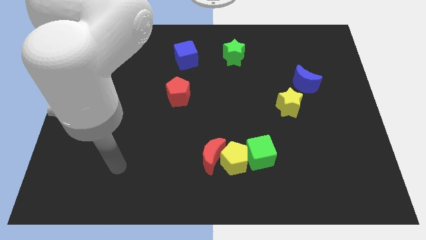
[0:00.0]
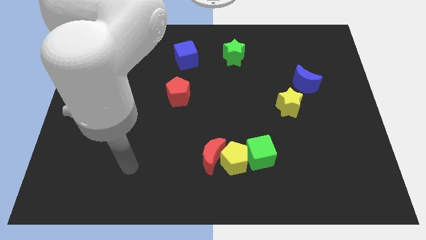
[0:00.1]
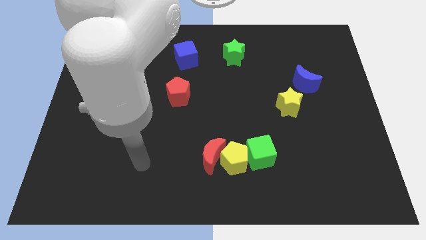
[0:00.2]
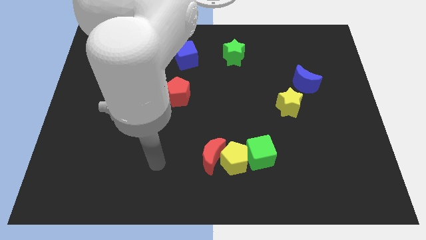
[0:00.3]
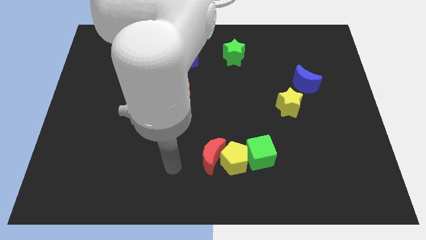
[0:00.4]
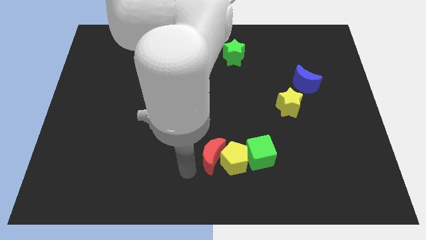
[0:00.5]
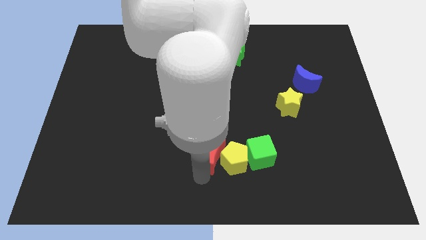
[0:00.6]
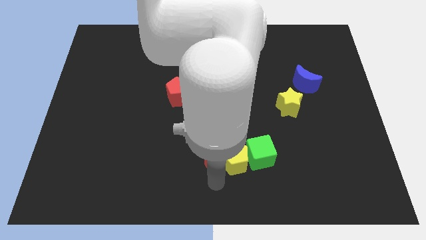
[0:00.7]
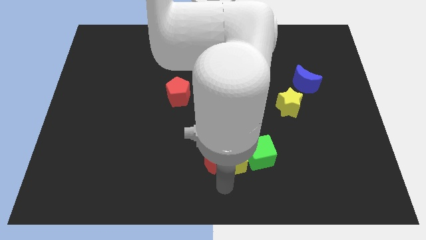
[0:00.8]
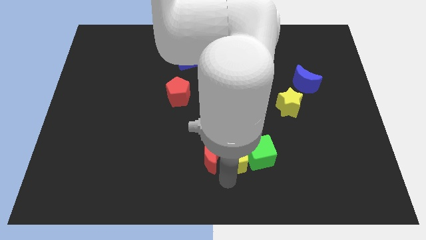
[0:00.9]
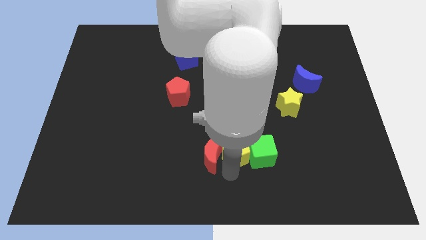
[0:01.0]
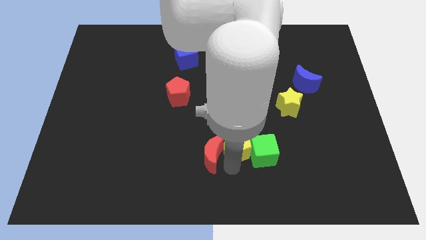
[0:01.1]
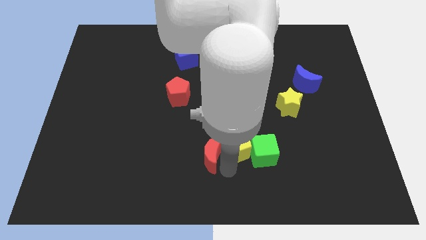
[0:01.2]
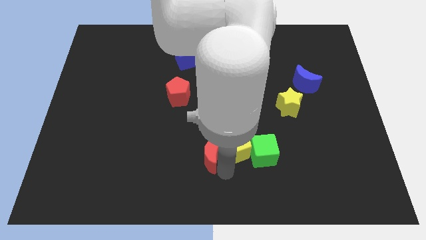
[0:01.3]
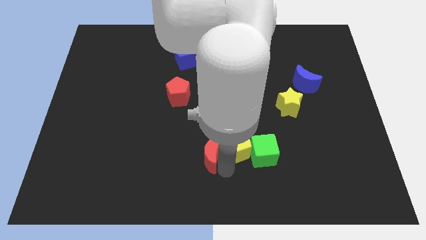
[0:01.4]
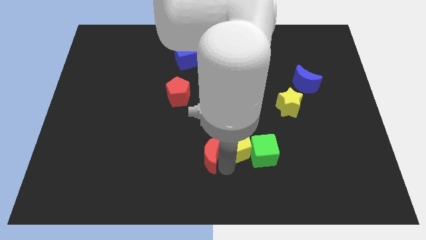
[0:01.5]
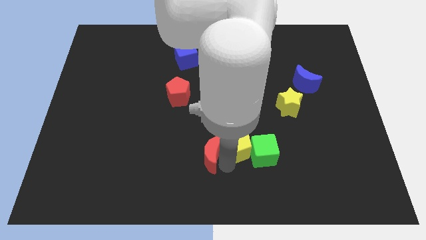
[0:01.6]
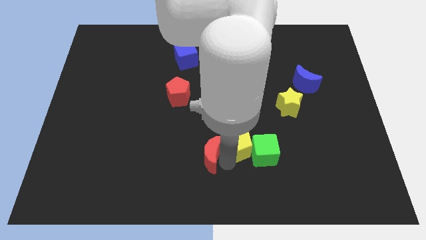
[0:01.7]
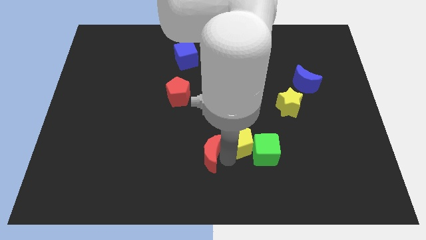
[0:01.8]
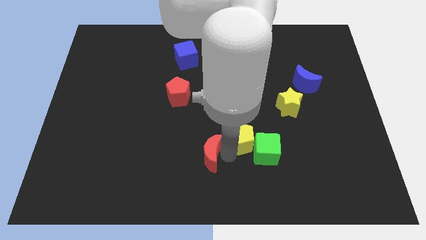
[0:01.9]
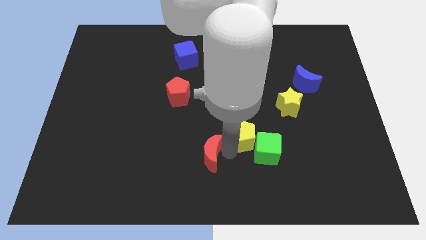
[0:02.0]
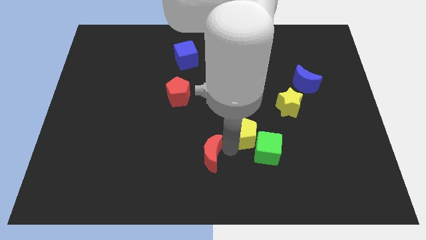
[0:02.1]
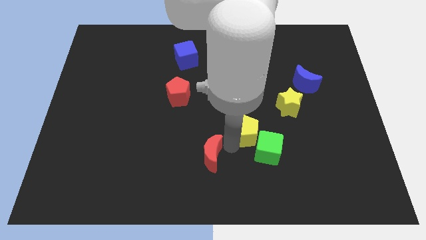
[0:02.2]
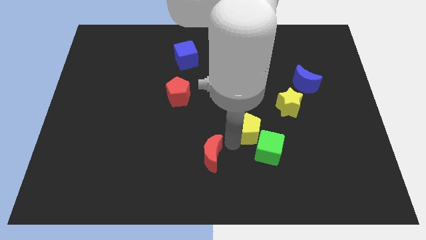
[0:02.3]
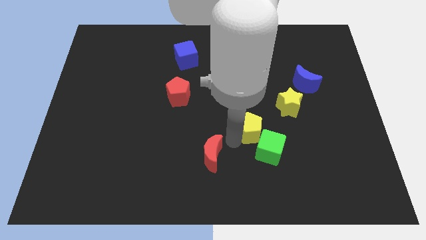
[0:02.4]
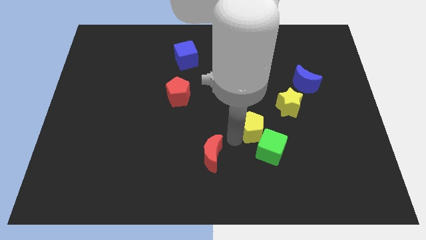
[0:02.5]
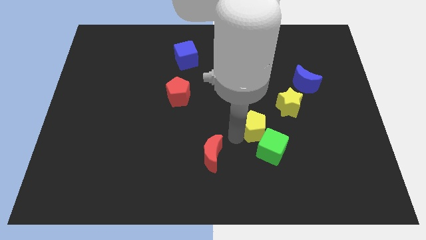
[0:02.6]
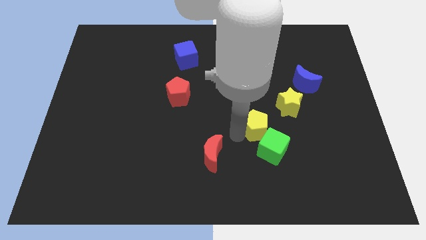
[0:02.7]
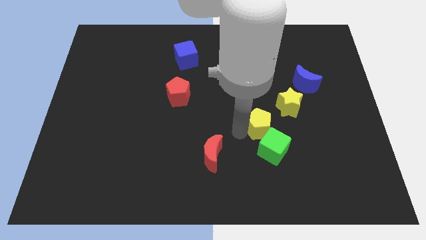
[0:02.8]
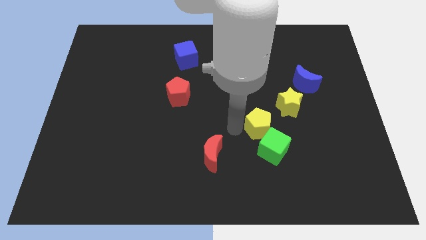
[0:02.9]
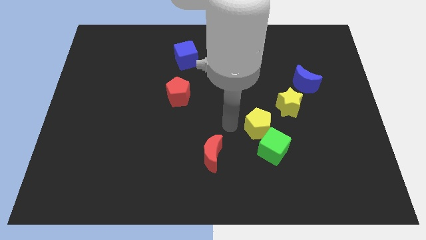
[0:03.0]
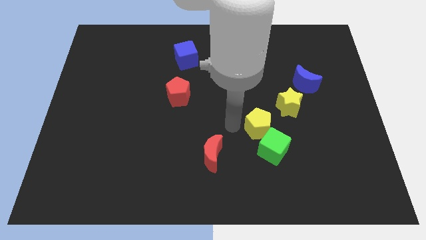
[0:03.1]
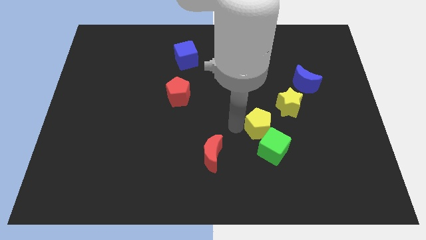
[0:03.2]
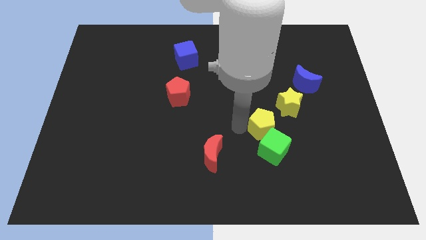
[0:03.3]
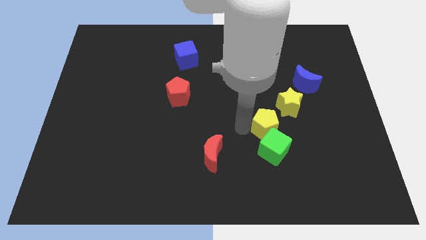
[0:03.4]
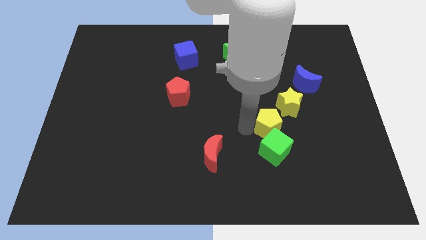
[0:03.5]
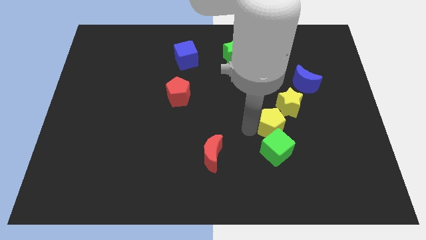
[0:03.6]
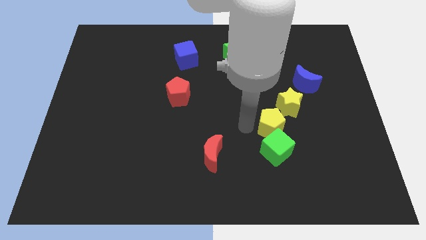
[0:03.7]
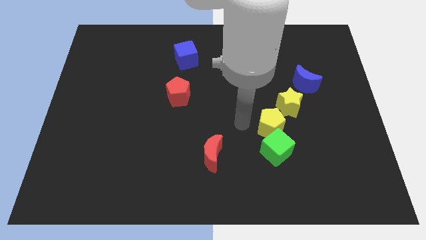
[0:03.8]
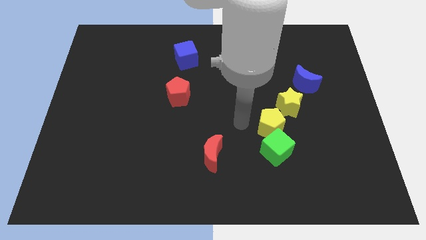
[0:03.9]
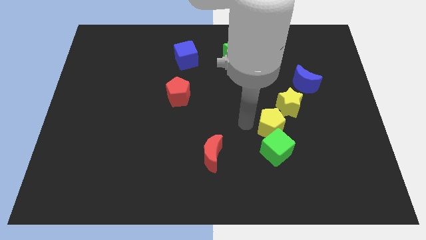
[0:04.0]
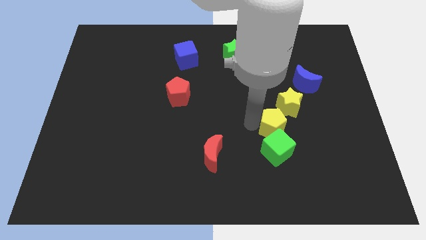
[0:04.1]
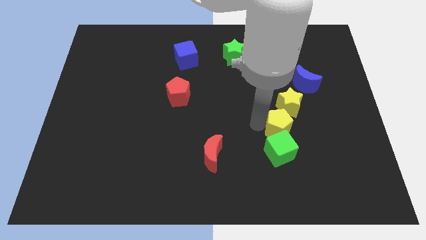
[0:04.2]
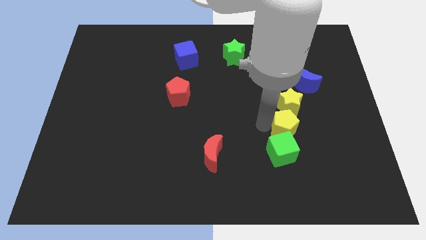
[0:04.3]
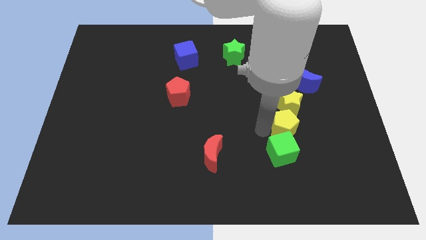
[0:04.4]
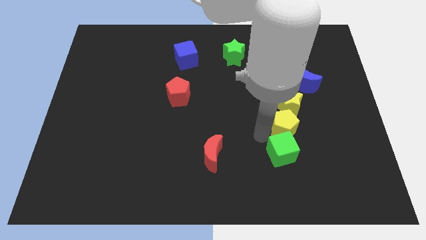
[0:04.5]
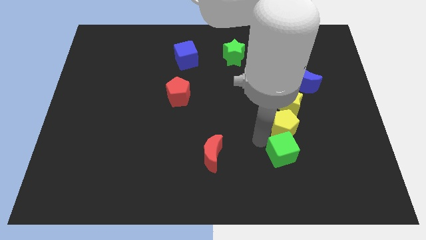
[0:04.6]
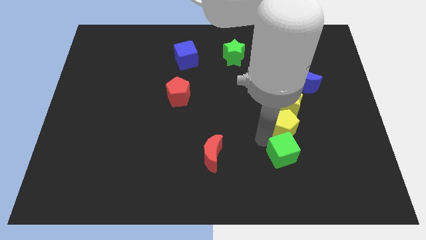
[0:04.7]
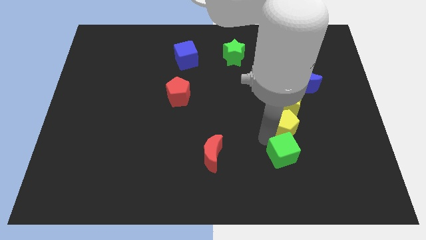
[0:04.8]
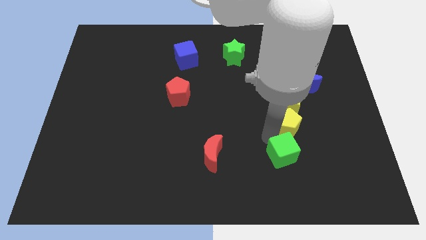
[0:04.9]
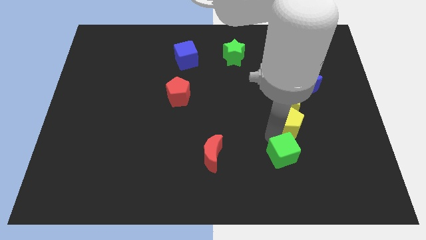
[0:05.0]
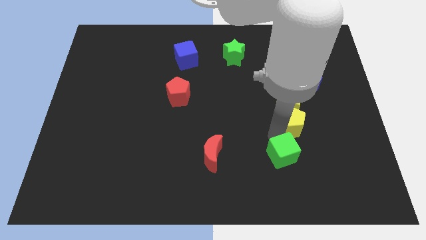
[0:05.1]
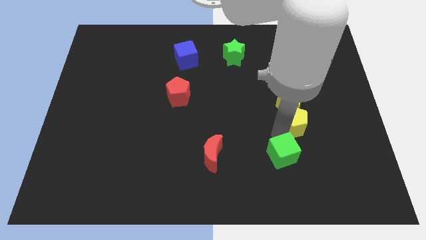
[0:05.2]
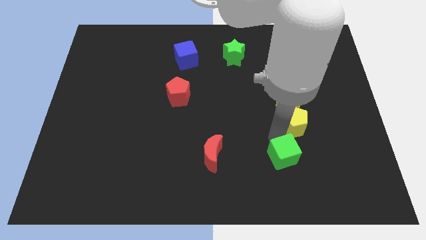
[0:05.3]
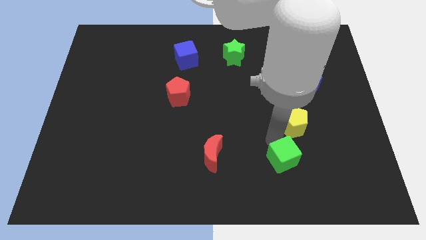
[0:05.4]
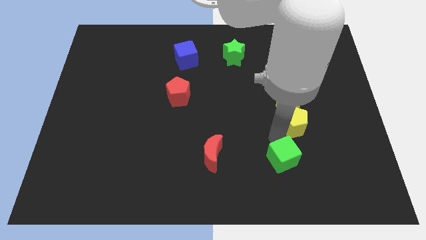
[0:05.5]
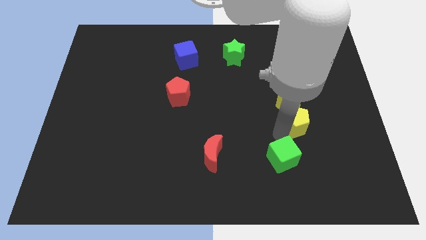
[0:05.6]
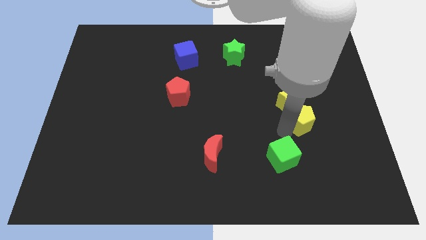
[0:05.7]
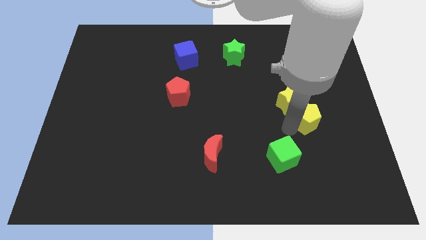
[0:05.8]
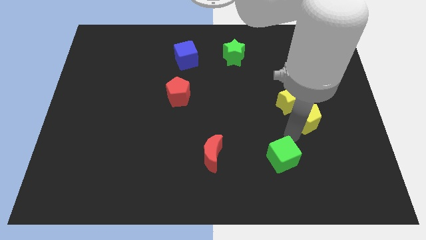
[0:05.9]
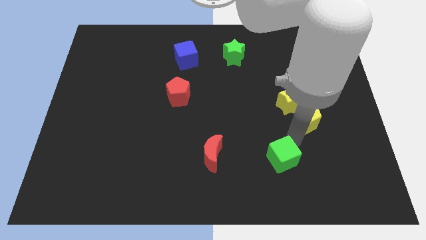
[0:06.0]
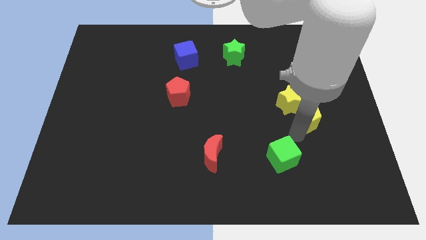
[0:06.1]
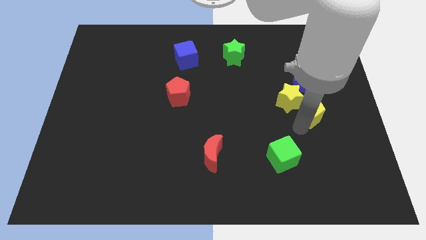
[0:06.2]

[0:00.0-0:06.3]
move the yellow pentagon up and then to the right

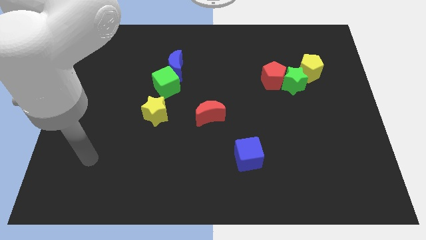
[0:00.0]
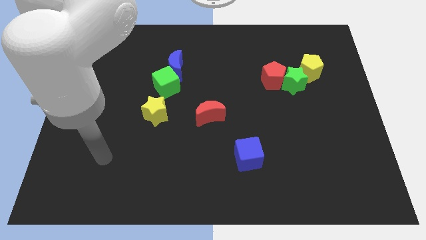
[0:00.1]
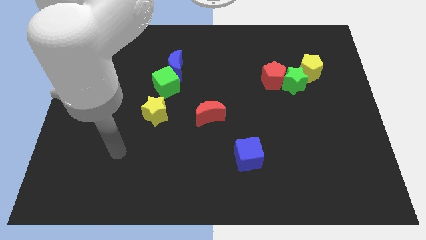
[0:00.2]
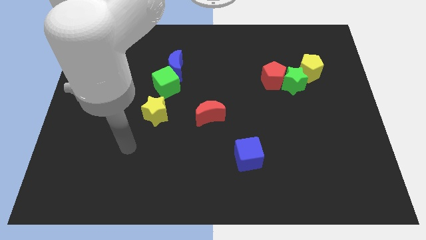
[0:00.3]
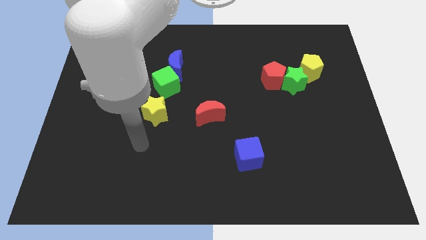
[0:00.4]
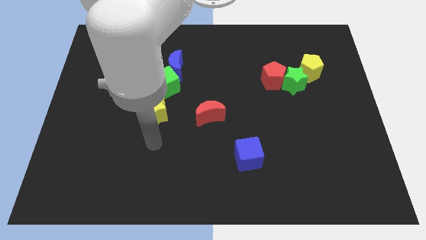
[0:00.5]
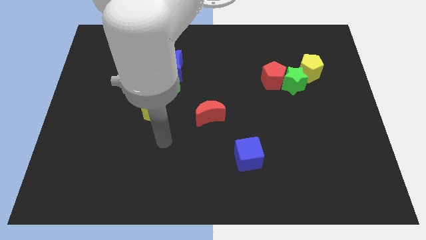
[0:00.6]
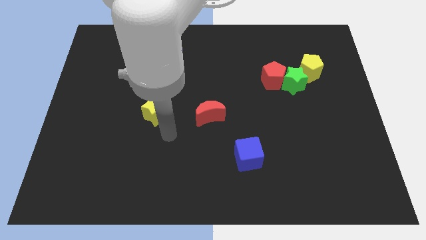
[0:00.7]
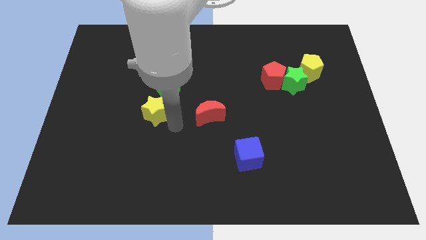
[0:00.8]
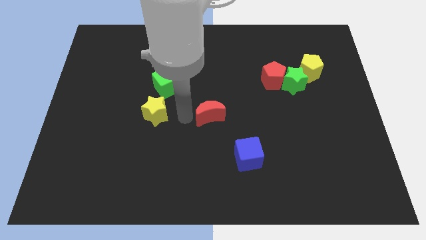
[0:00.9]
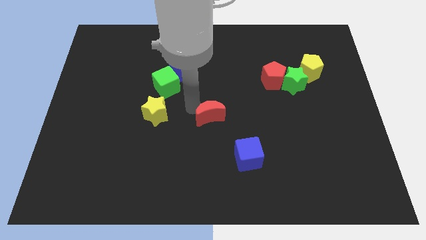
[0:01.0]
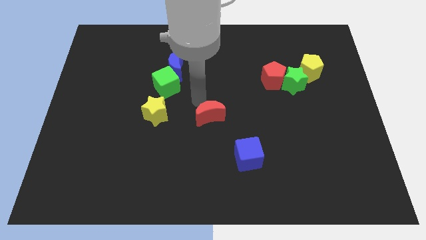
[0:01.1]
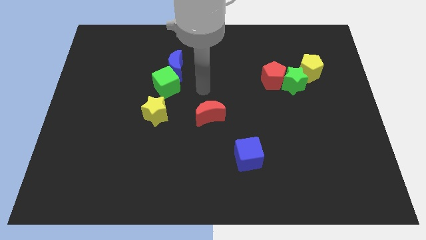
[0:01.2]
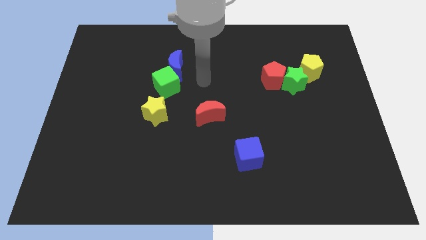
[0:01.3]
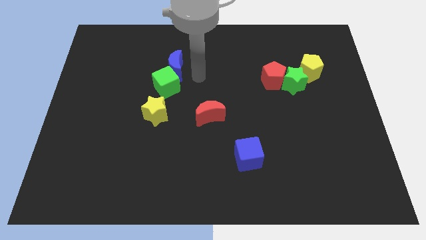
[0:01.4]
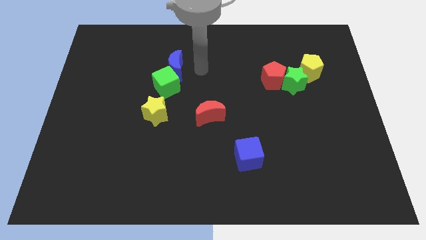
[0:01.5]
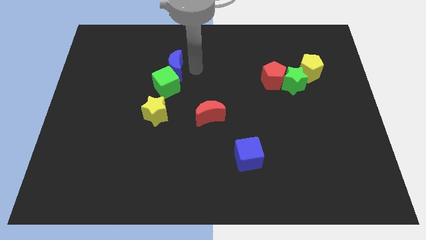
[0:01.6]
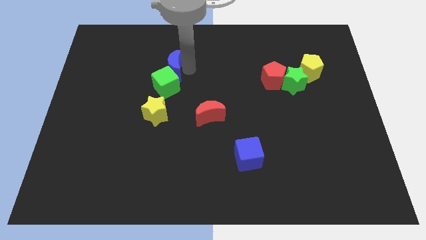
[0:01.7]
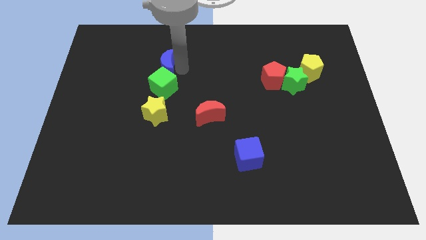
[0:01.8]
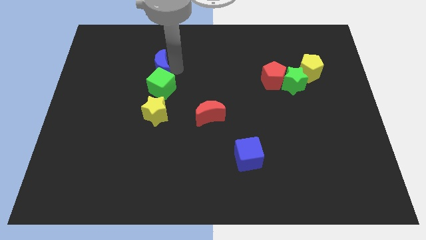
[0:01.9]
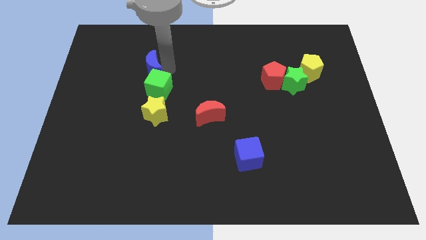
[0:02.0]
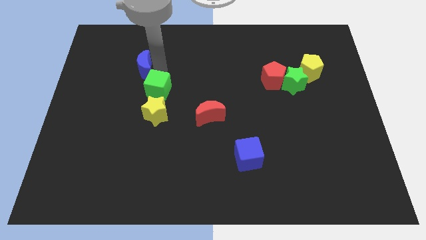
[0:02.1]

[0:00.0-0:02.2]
slightly push the blue moon to the left
